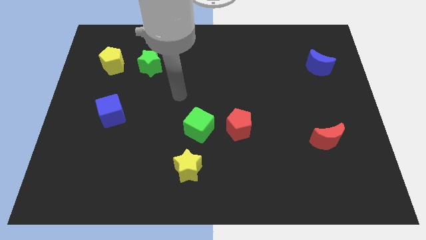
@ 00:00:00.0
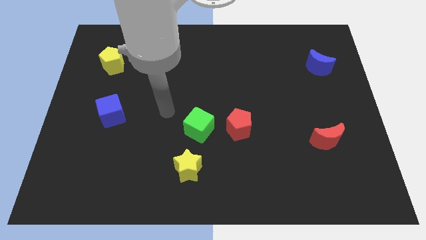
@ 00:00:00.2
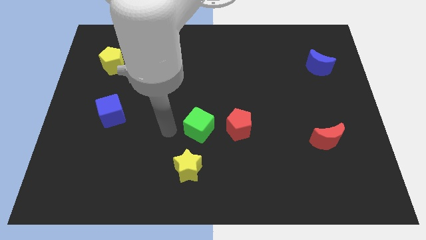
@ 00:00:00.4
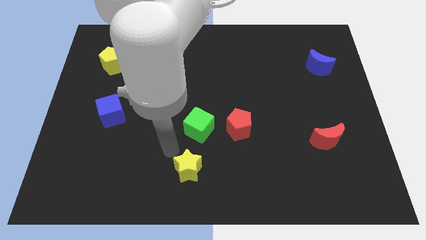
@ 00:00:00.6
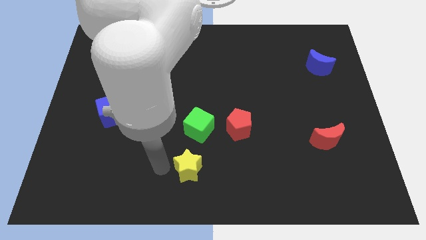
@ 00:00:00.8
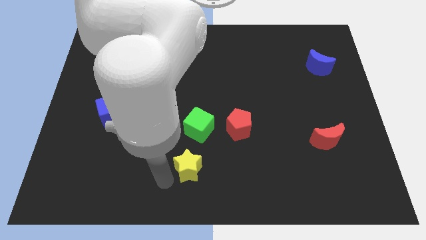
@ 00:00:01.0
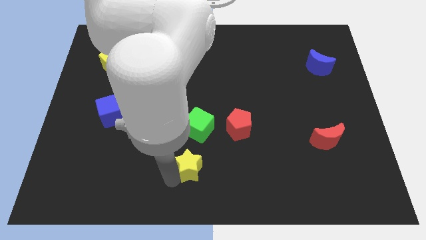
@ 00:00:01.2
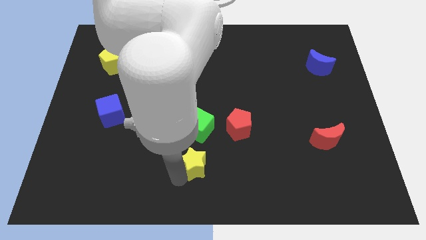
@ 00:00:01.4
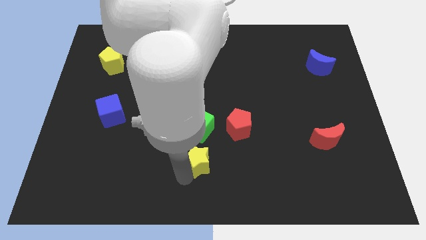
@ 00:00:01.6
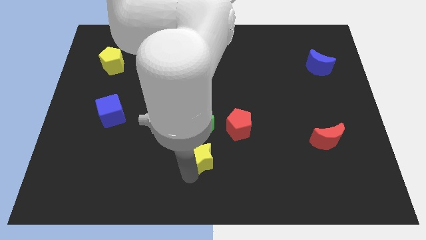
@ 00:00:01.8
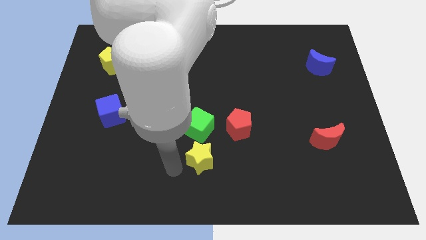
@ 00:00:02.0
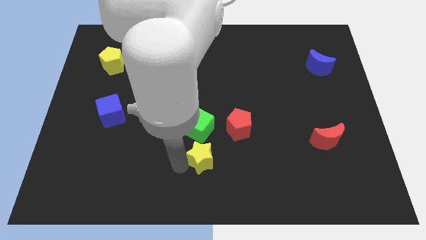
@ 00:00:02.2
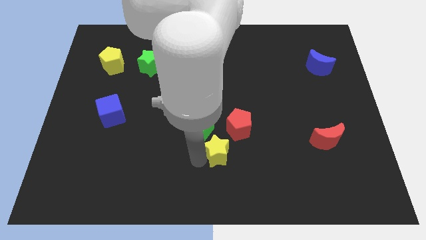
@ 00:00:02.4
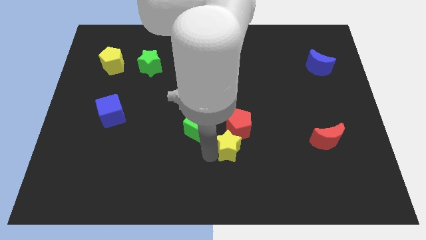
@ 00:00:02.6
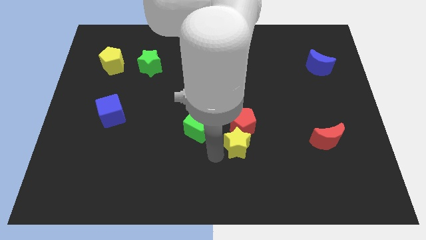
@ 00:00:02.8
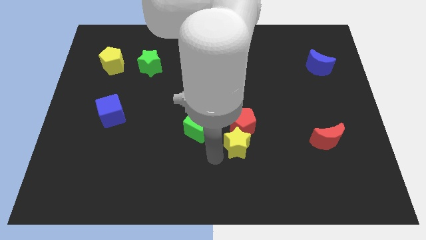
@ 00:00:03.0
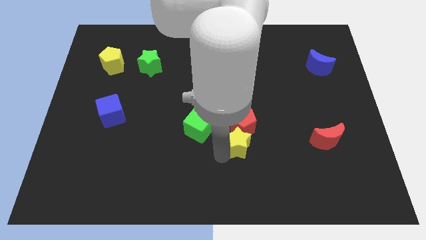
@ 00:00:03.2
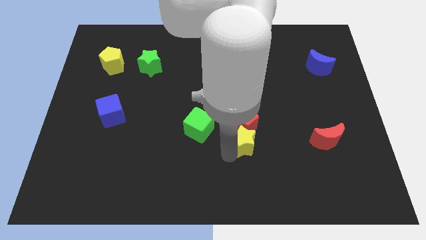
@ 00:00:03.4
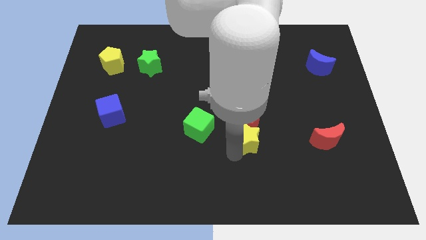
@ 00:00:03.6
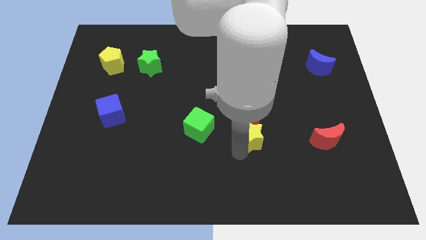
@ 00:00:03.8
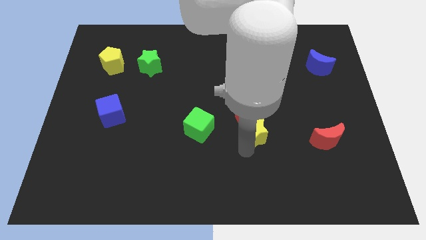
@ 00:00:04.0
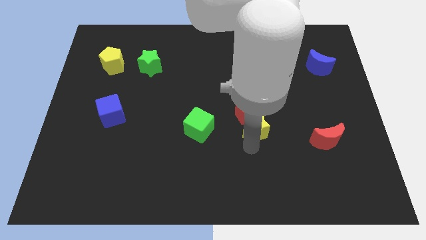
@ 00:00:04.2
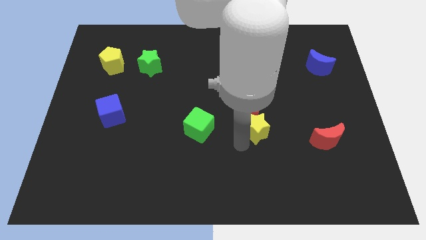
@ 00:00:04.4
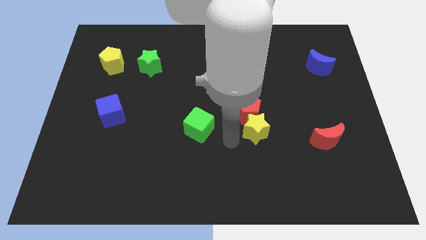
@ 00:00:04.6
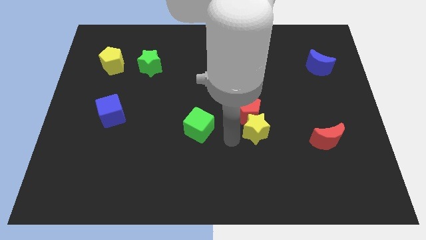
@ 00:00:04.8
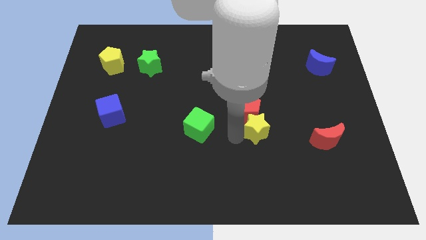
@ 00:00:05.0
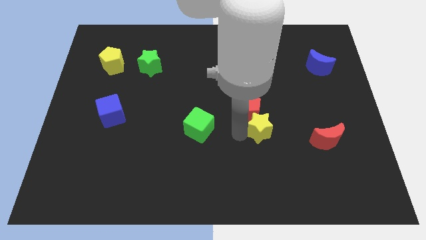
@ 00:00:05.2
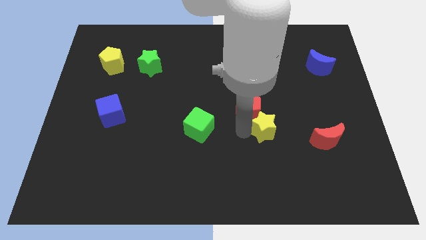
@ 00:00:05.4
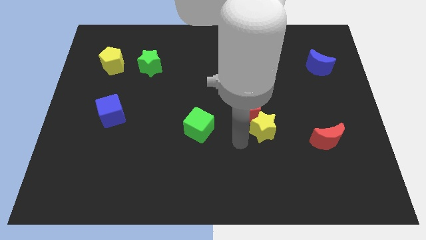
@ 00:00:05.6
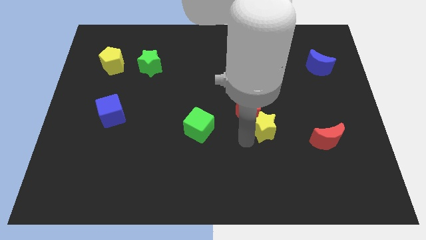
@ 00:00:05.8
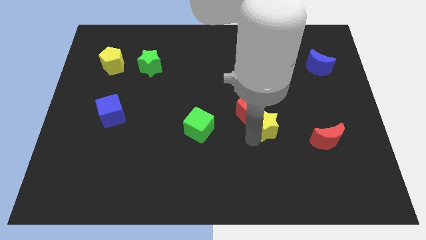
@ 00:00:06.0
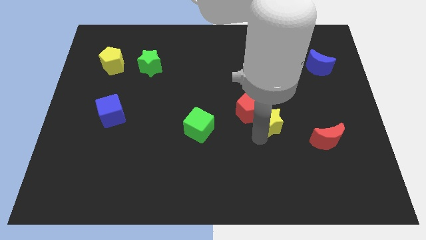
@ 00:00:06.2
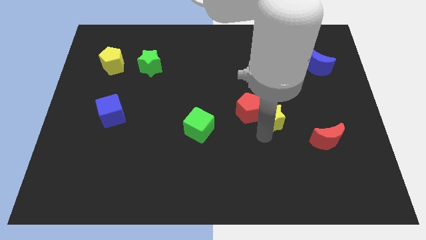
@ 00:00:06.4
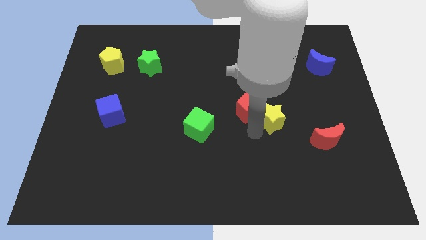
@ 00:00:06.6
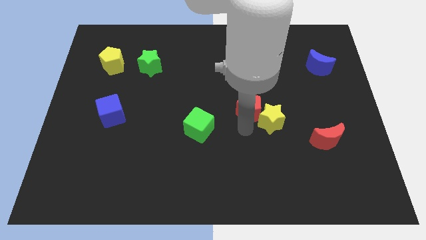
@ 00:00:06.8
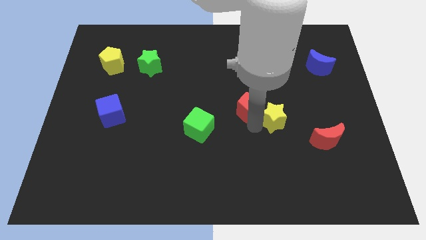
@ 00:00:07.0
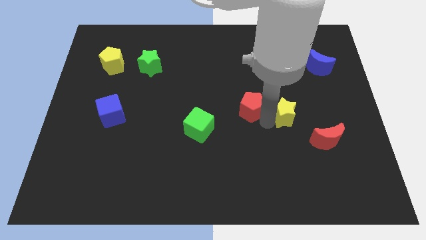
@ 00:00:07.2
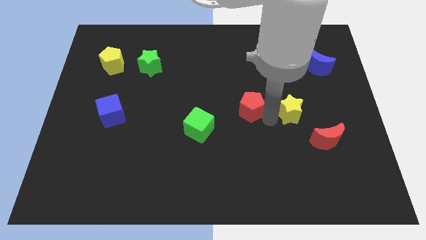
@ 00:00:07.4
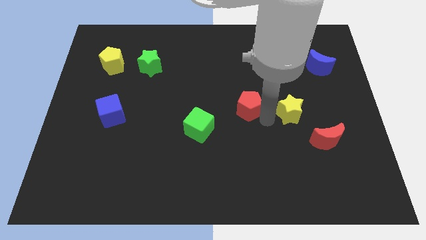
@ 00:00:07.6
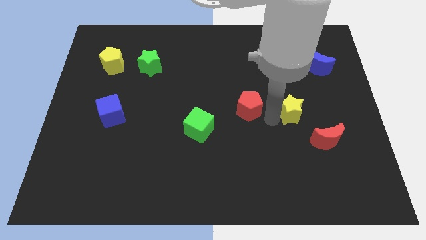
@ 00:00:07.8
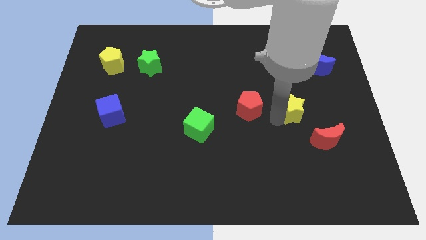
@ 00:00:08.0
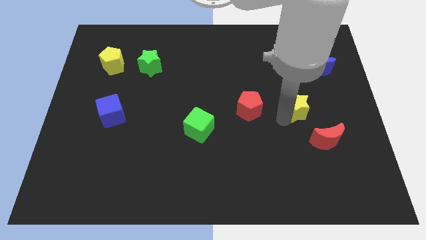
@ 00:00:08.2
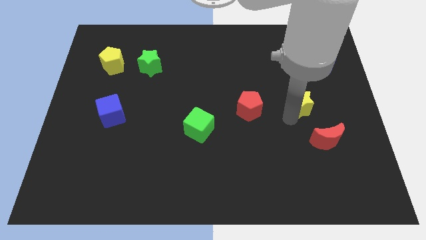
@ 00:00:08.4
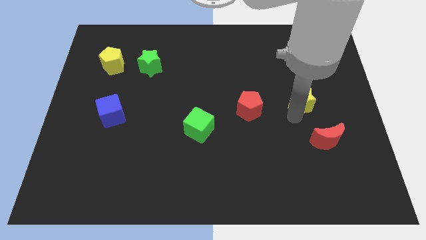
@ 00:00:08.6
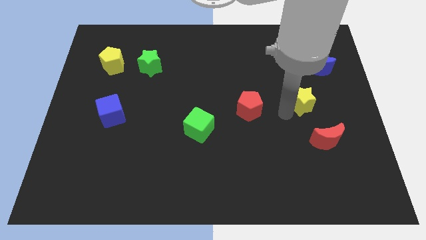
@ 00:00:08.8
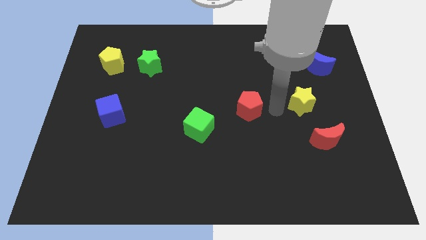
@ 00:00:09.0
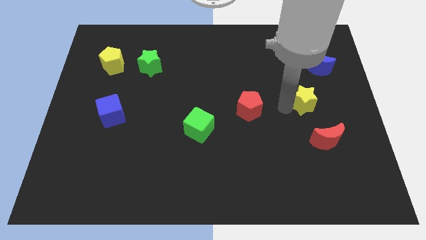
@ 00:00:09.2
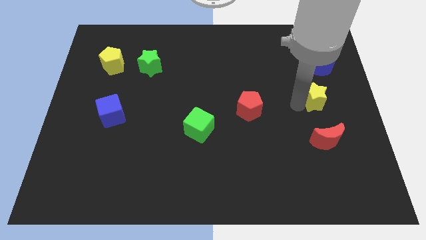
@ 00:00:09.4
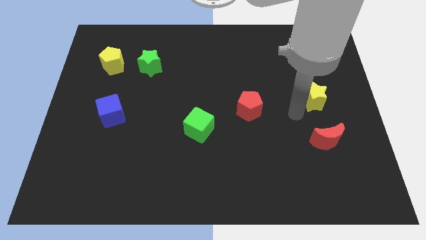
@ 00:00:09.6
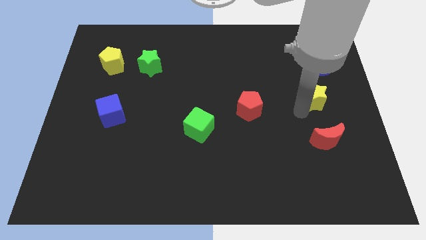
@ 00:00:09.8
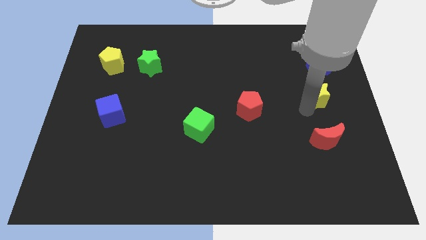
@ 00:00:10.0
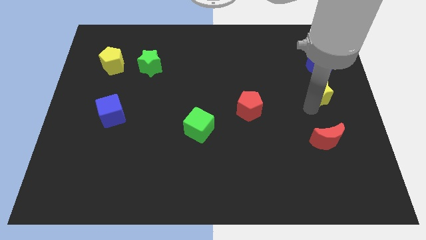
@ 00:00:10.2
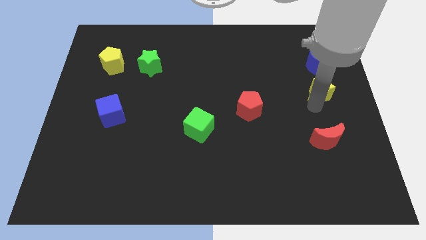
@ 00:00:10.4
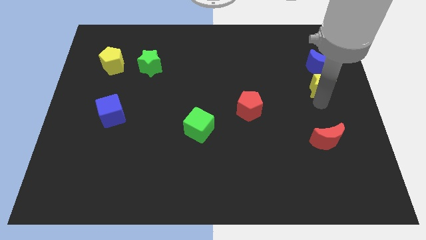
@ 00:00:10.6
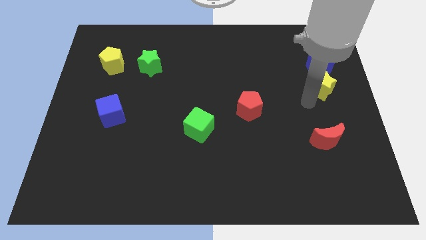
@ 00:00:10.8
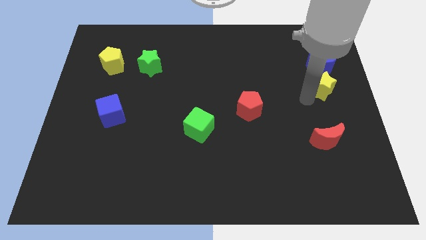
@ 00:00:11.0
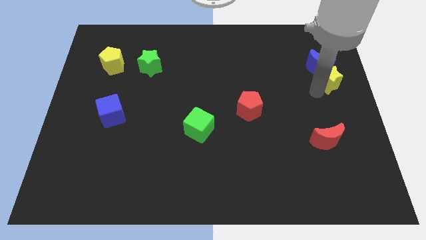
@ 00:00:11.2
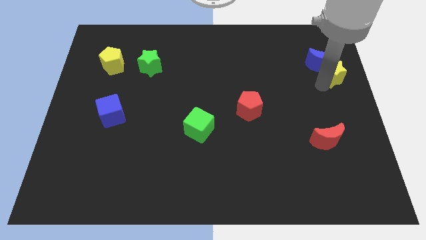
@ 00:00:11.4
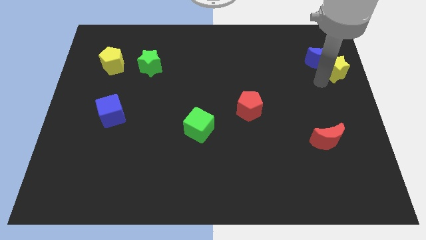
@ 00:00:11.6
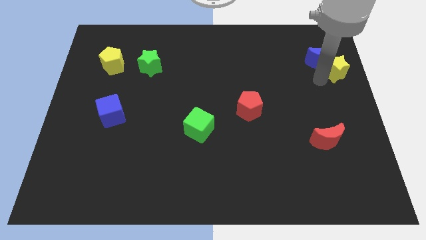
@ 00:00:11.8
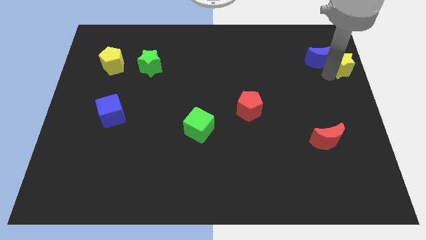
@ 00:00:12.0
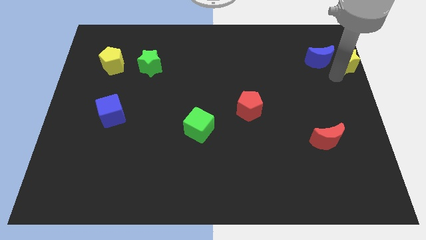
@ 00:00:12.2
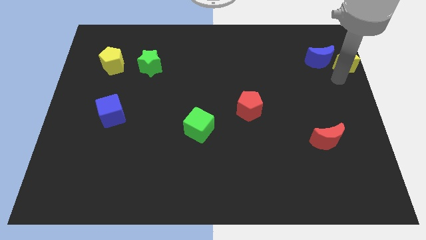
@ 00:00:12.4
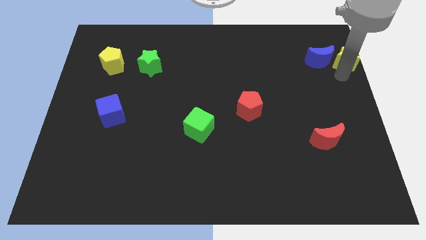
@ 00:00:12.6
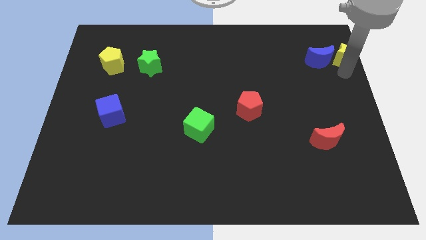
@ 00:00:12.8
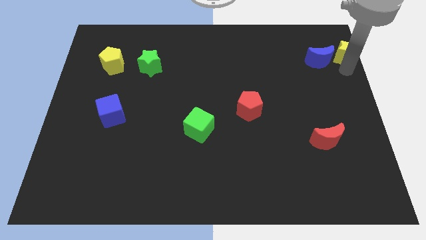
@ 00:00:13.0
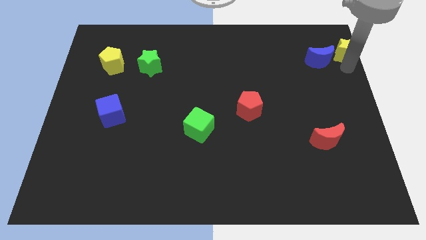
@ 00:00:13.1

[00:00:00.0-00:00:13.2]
push the yellow star to the top right of the board

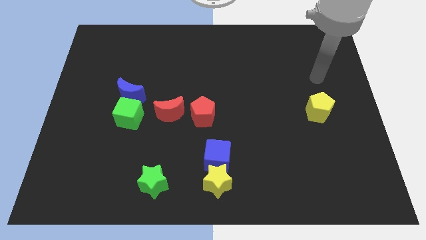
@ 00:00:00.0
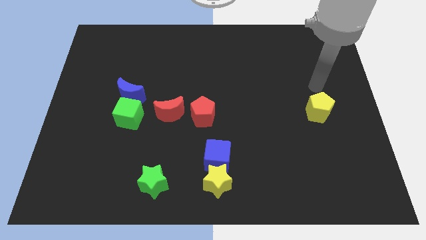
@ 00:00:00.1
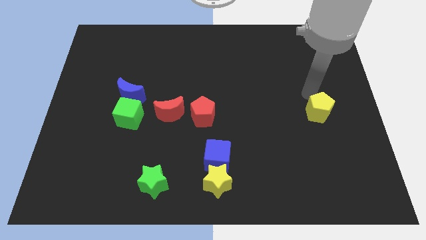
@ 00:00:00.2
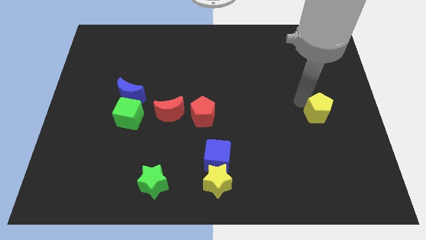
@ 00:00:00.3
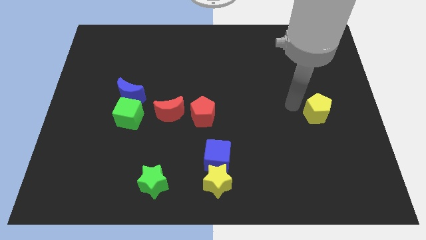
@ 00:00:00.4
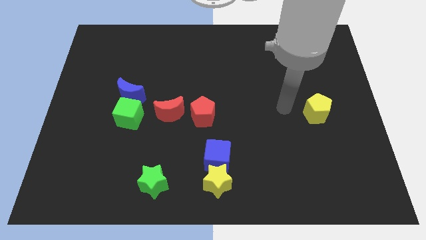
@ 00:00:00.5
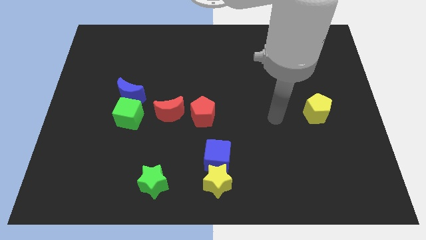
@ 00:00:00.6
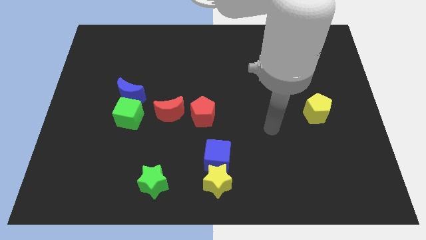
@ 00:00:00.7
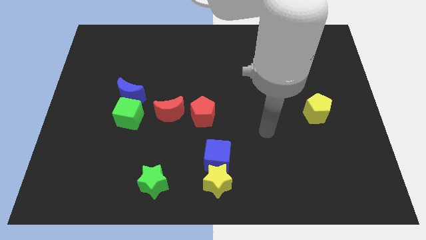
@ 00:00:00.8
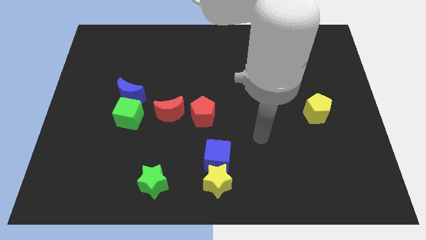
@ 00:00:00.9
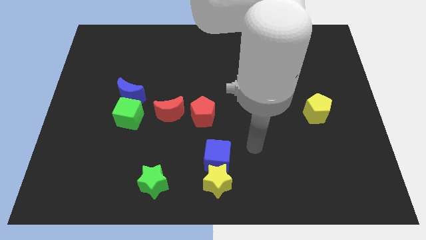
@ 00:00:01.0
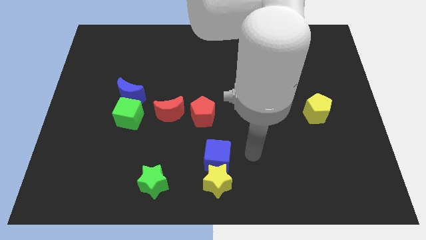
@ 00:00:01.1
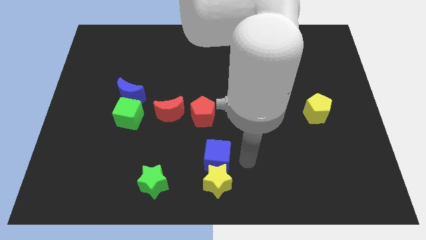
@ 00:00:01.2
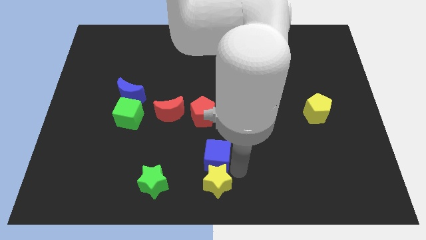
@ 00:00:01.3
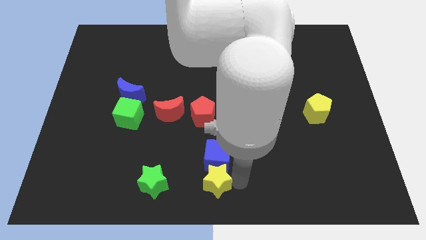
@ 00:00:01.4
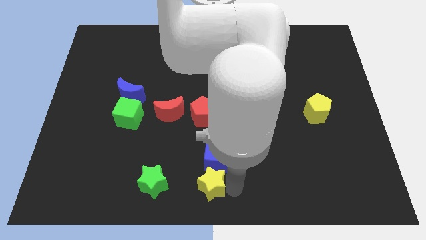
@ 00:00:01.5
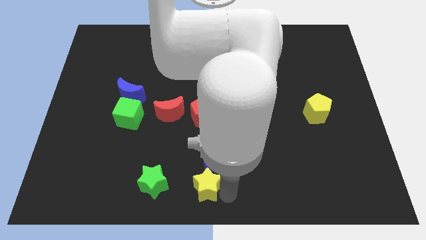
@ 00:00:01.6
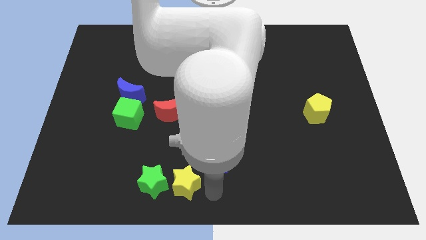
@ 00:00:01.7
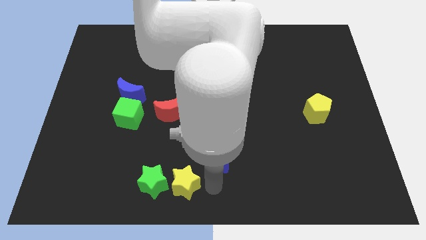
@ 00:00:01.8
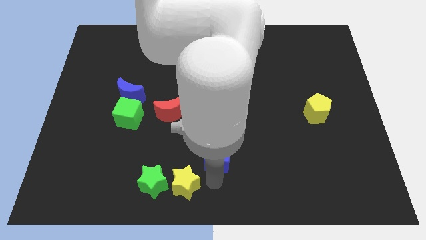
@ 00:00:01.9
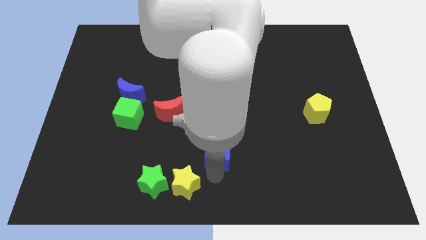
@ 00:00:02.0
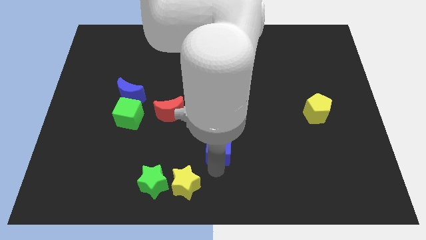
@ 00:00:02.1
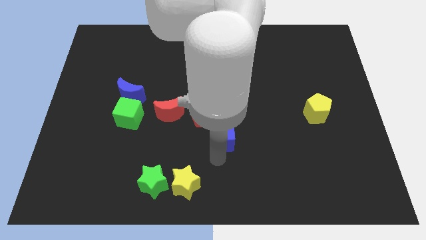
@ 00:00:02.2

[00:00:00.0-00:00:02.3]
push the blue cube to the center
